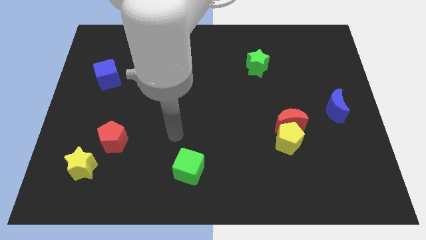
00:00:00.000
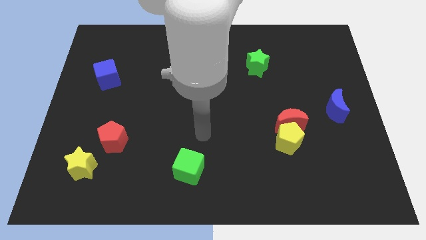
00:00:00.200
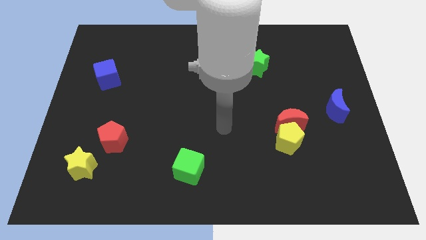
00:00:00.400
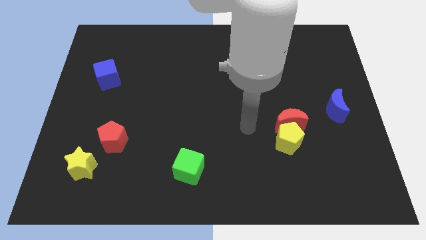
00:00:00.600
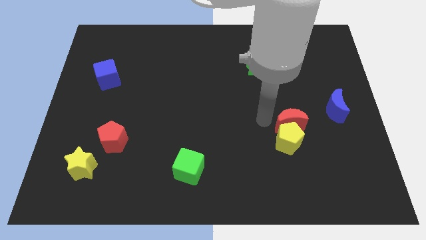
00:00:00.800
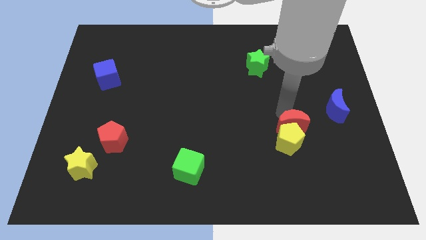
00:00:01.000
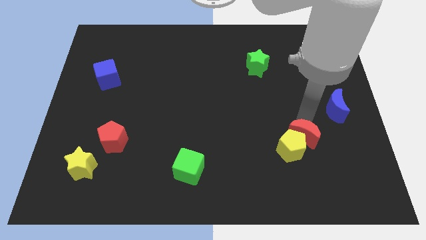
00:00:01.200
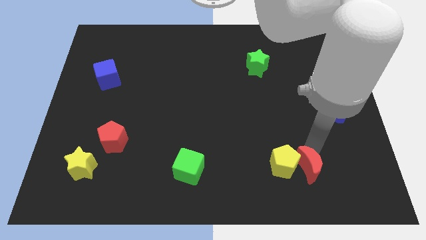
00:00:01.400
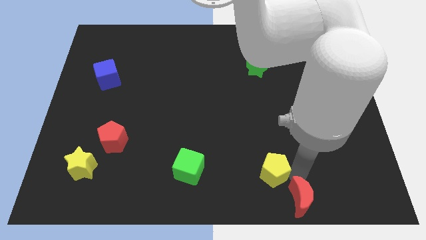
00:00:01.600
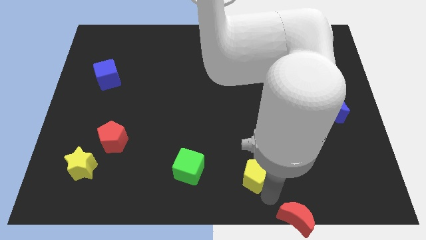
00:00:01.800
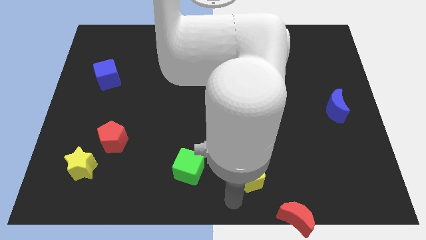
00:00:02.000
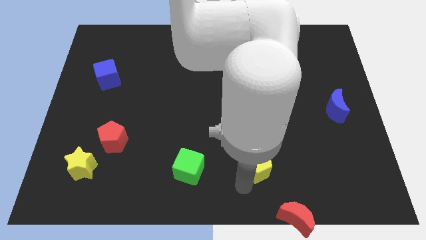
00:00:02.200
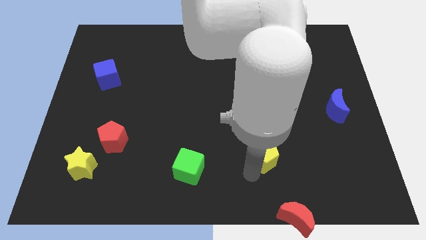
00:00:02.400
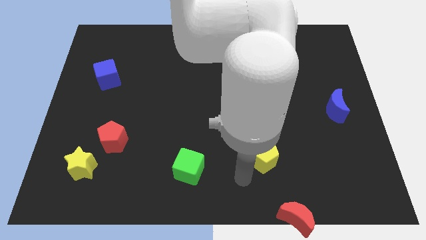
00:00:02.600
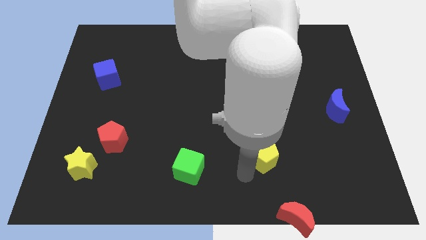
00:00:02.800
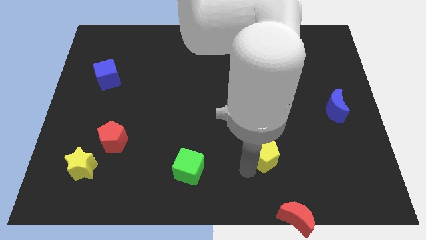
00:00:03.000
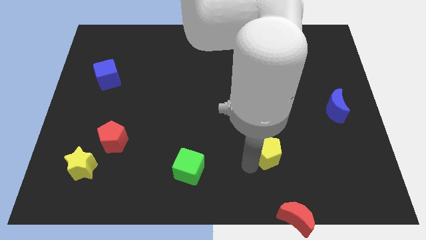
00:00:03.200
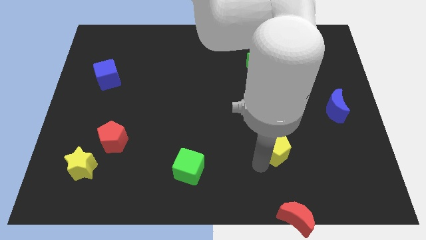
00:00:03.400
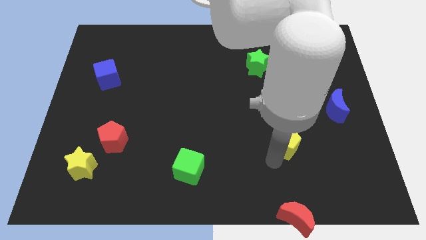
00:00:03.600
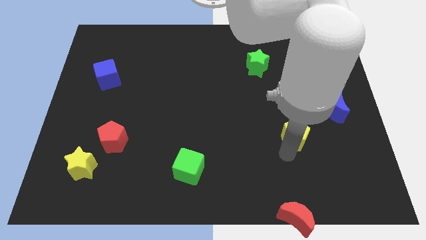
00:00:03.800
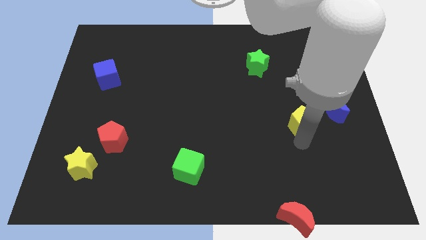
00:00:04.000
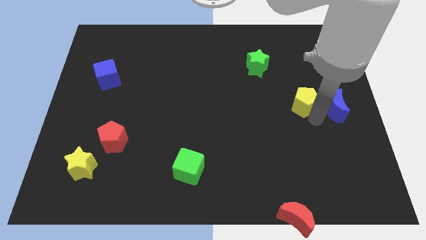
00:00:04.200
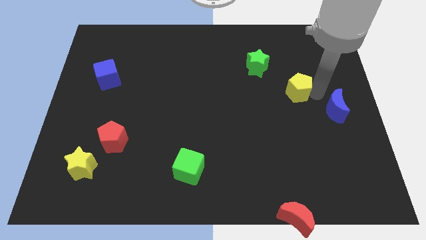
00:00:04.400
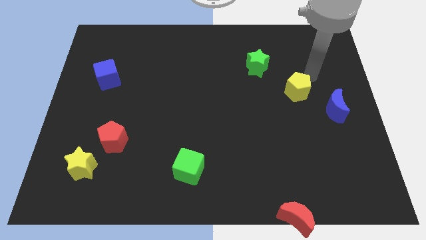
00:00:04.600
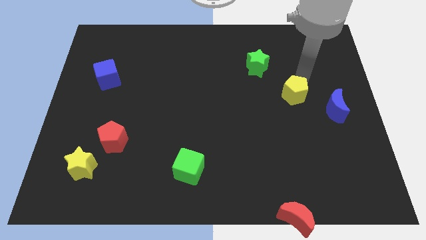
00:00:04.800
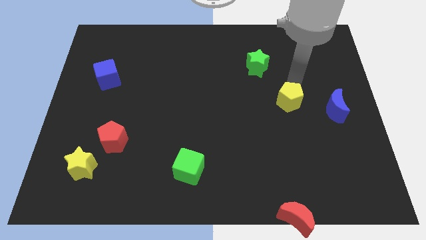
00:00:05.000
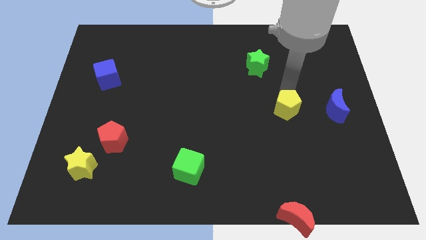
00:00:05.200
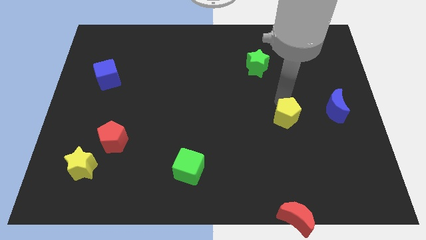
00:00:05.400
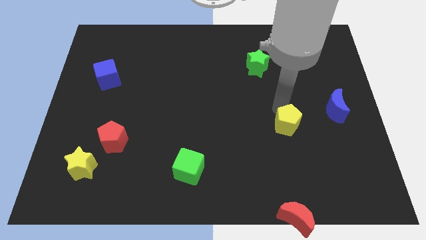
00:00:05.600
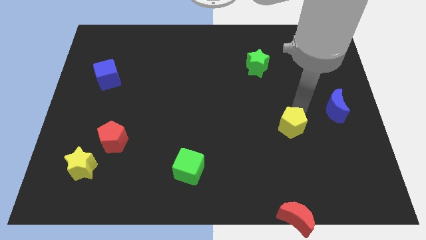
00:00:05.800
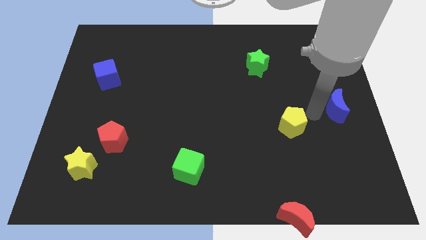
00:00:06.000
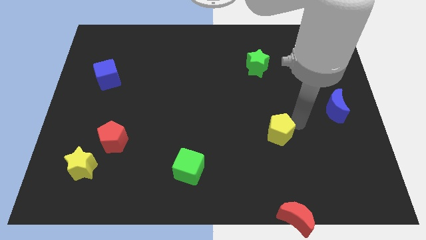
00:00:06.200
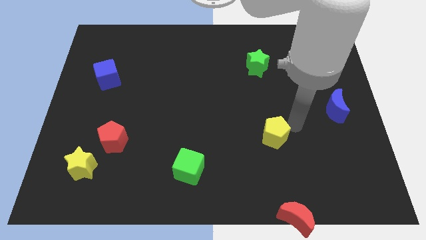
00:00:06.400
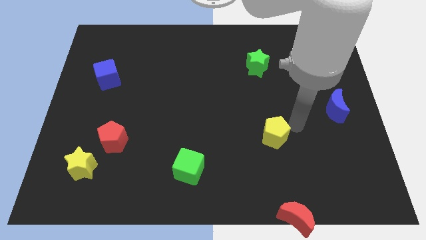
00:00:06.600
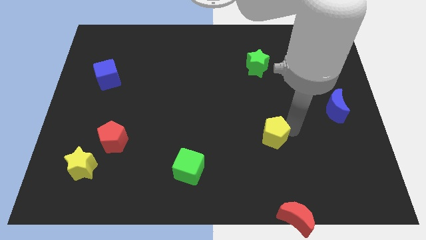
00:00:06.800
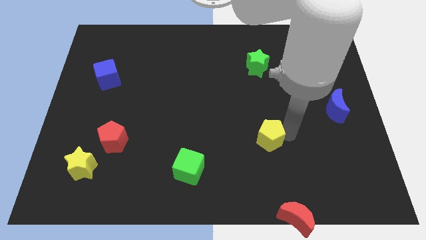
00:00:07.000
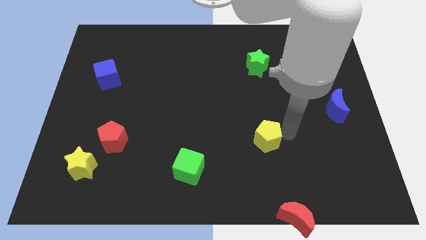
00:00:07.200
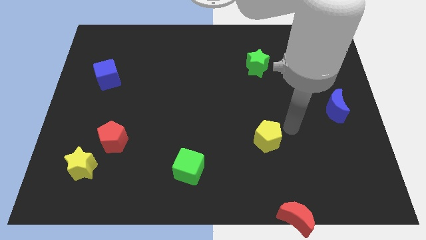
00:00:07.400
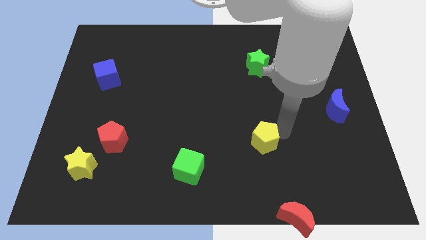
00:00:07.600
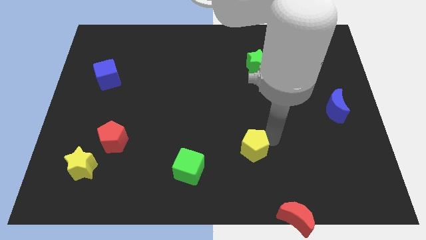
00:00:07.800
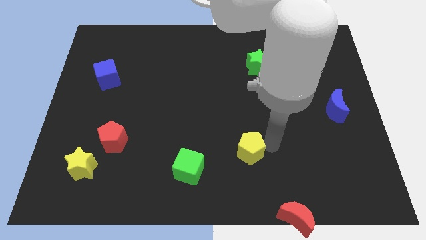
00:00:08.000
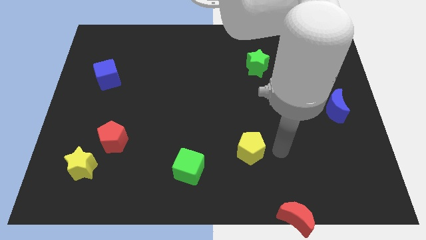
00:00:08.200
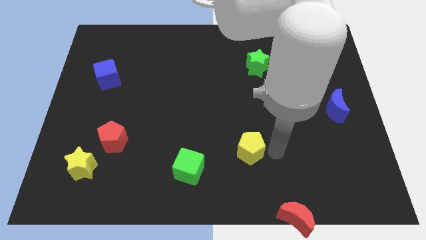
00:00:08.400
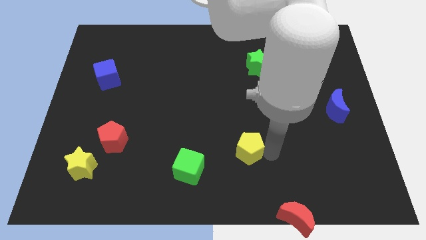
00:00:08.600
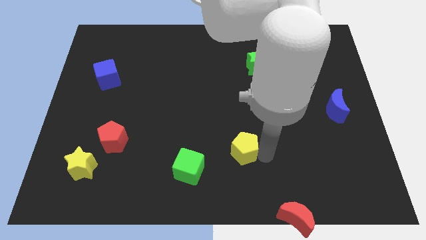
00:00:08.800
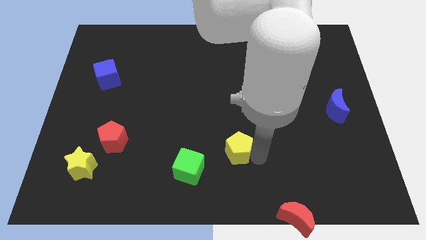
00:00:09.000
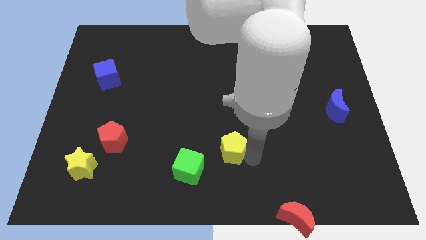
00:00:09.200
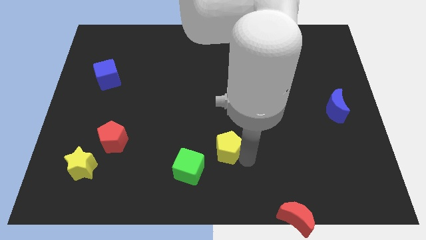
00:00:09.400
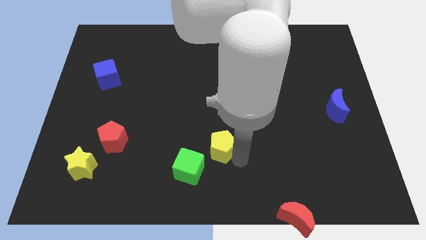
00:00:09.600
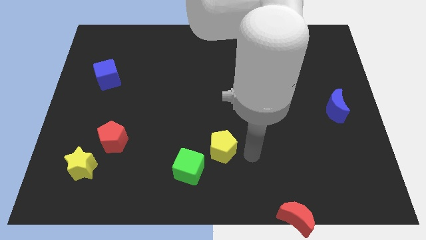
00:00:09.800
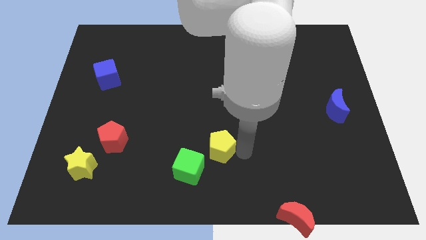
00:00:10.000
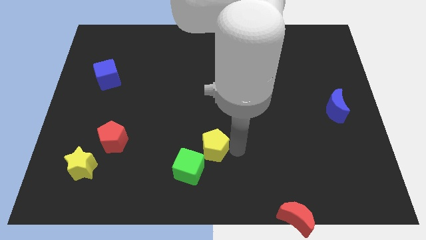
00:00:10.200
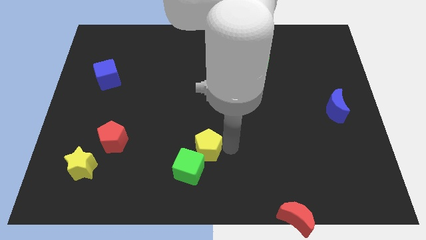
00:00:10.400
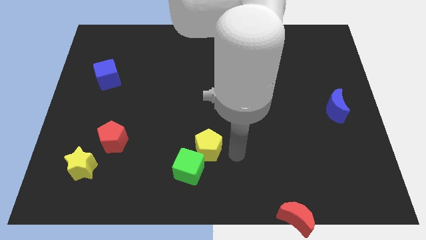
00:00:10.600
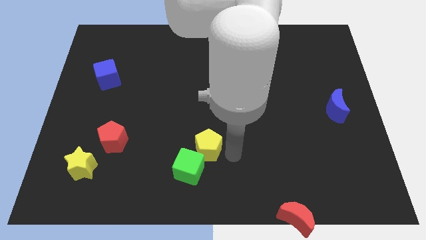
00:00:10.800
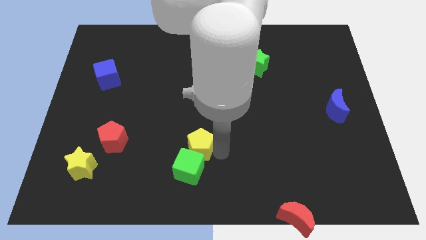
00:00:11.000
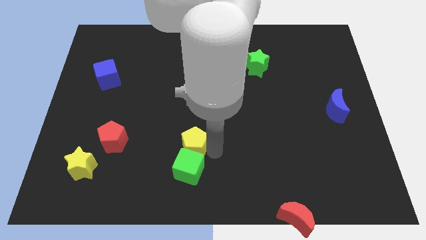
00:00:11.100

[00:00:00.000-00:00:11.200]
put the yellow pentagon diagonally up and to the left of the green cube

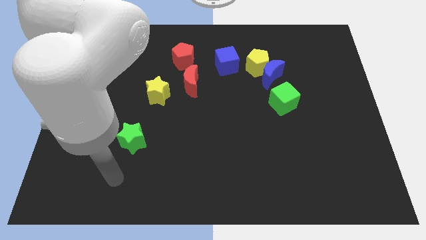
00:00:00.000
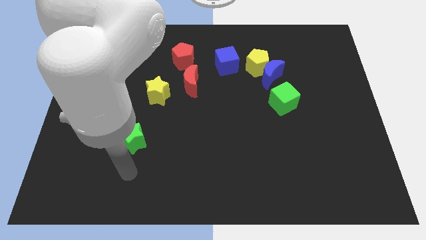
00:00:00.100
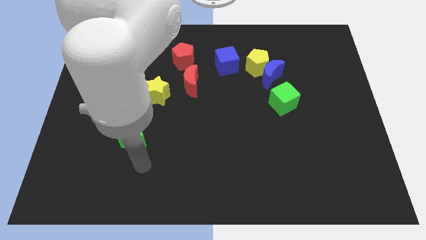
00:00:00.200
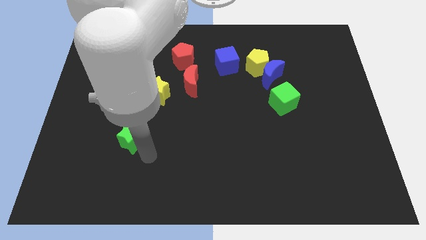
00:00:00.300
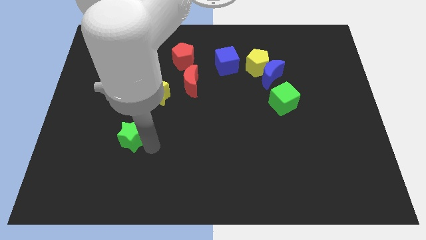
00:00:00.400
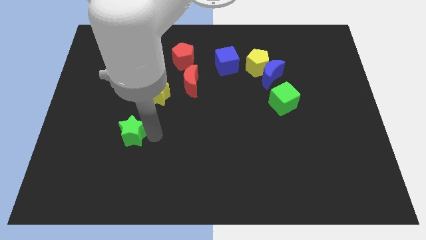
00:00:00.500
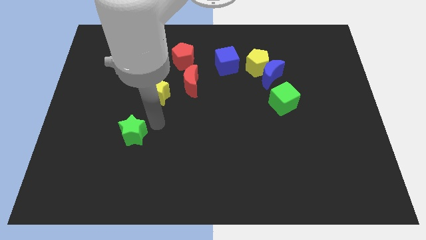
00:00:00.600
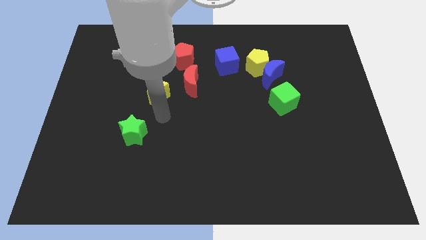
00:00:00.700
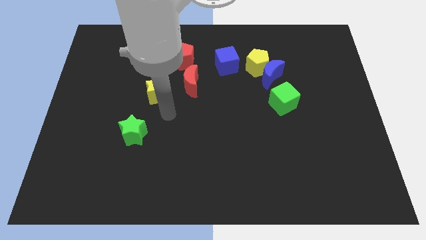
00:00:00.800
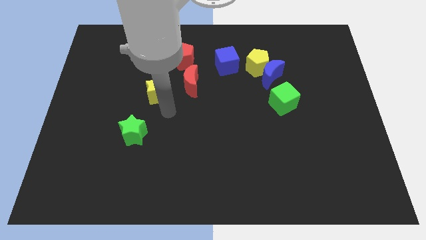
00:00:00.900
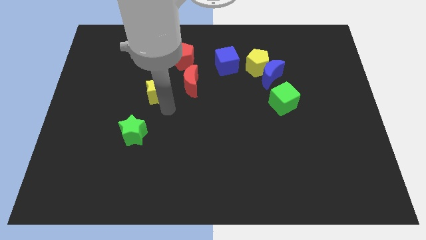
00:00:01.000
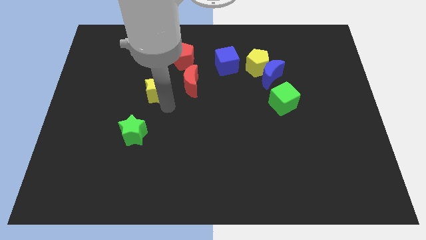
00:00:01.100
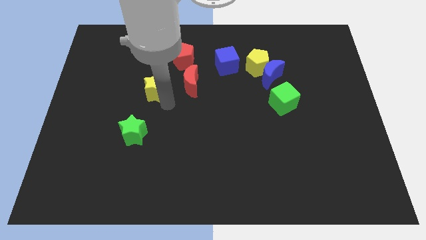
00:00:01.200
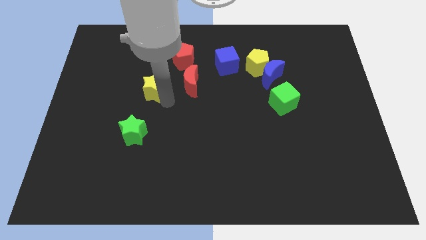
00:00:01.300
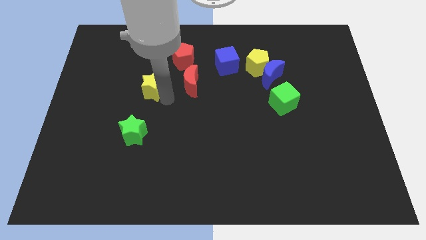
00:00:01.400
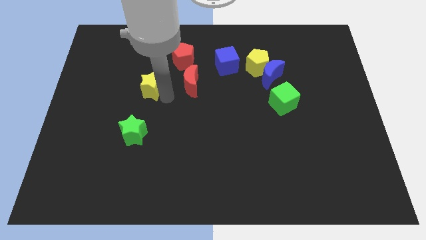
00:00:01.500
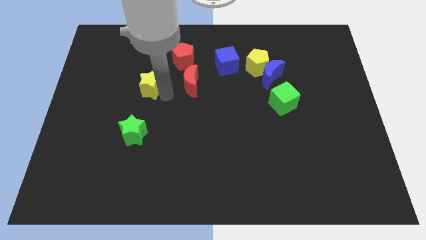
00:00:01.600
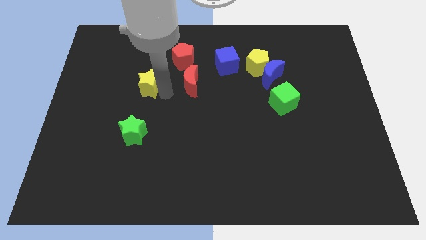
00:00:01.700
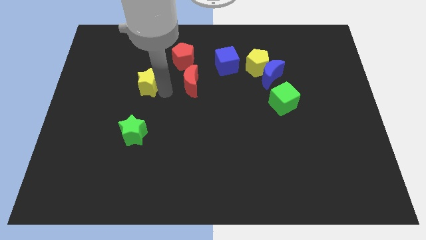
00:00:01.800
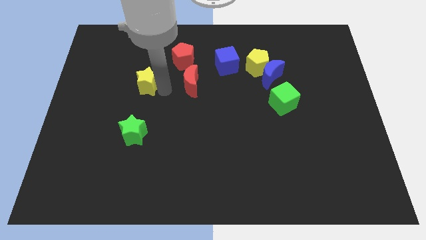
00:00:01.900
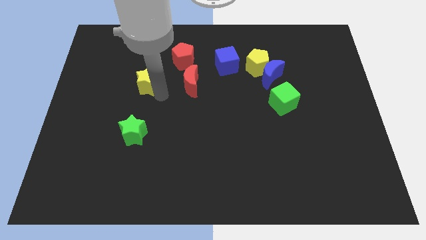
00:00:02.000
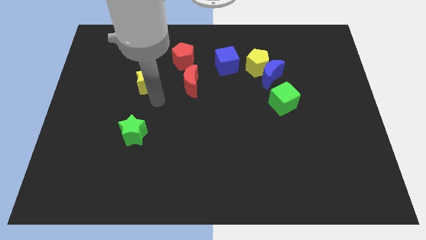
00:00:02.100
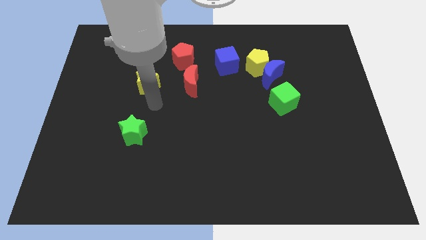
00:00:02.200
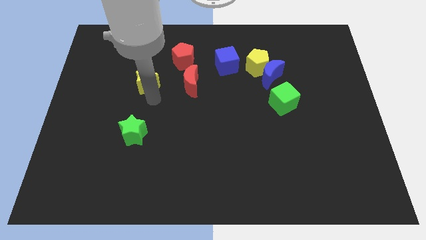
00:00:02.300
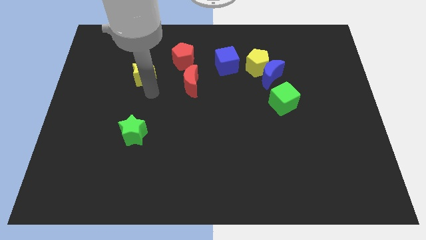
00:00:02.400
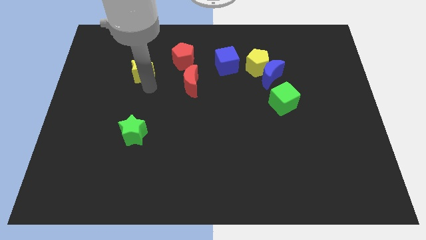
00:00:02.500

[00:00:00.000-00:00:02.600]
push the yellow star left of the red pentagon
